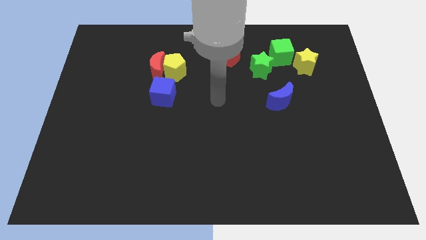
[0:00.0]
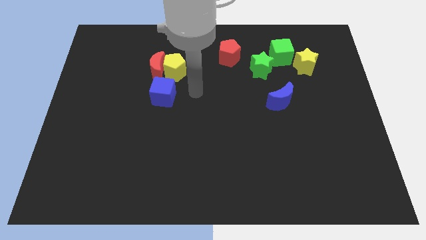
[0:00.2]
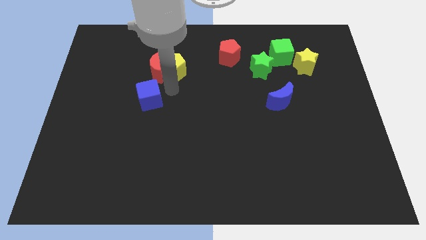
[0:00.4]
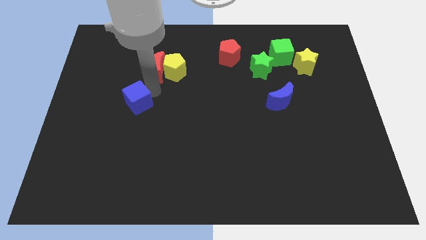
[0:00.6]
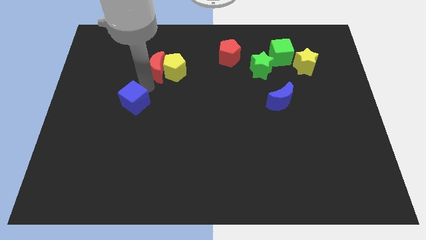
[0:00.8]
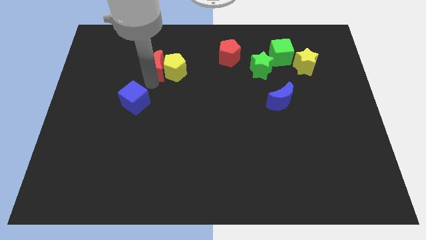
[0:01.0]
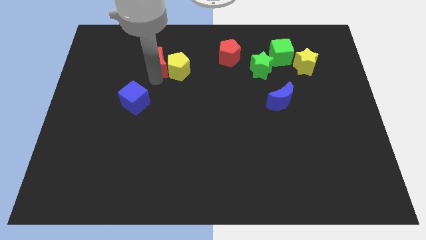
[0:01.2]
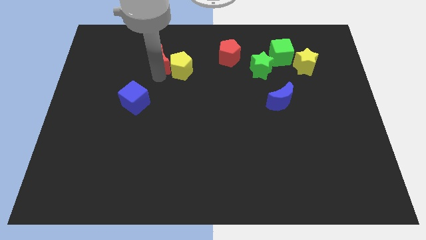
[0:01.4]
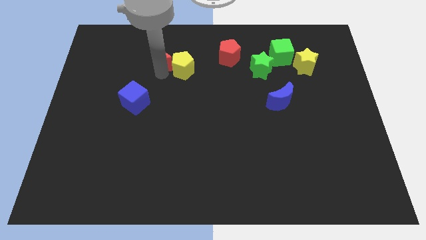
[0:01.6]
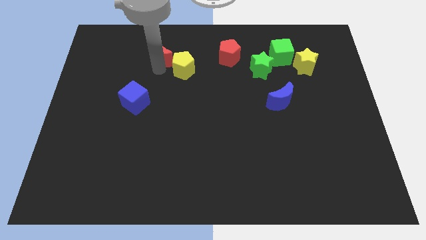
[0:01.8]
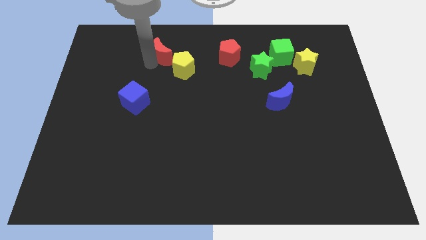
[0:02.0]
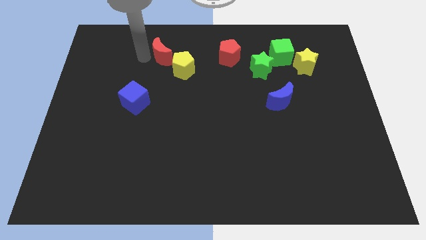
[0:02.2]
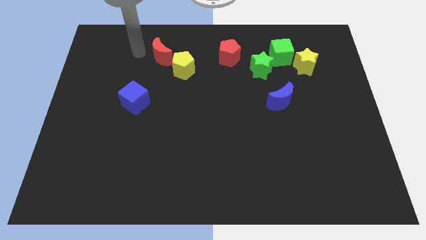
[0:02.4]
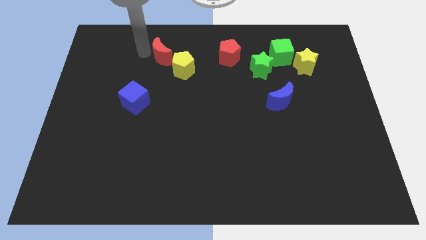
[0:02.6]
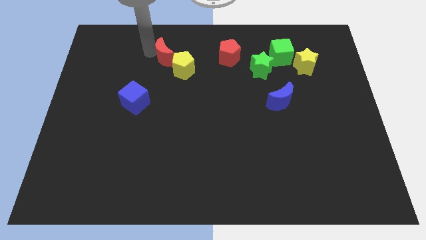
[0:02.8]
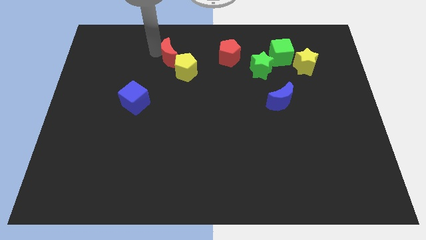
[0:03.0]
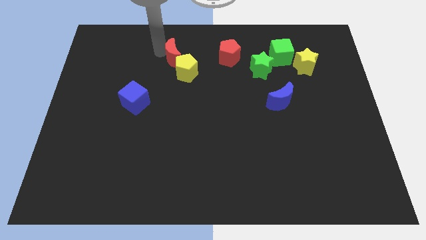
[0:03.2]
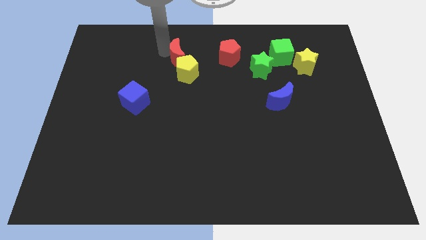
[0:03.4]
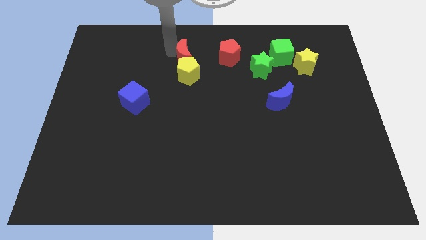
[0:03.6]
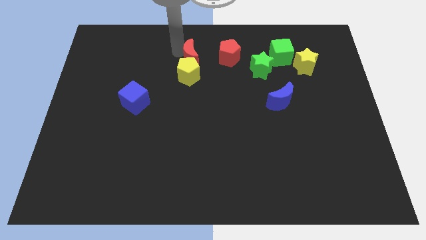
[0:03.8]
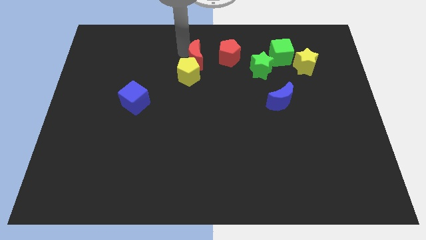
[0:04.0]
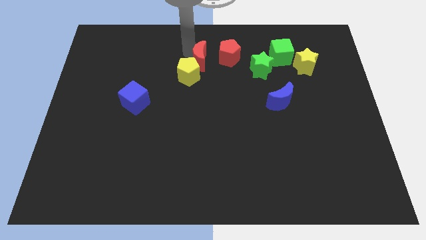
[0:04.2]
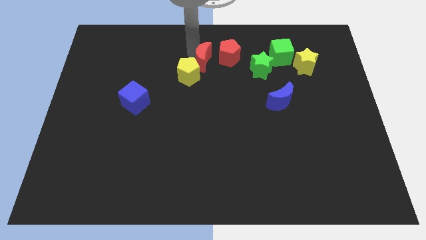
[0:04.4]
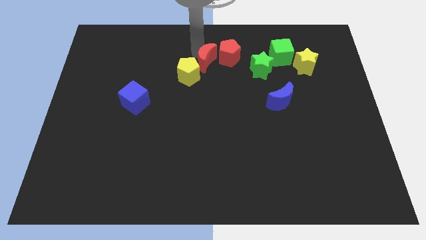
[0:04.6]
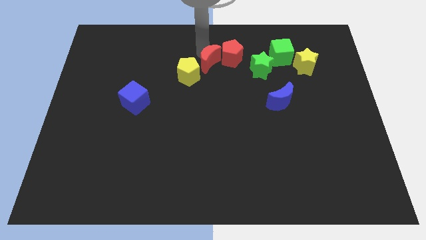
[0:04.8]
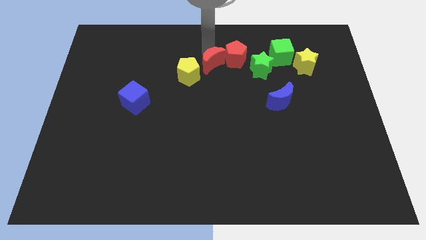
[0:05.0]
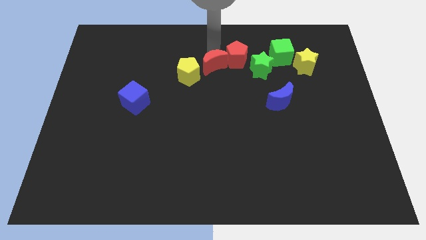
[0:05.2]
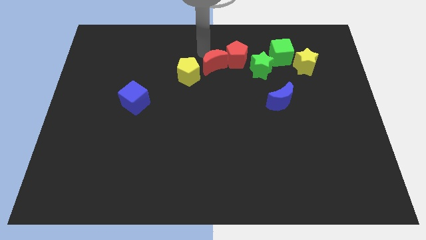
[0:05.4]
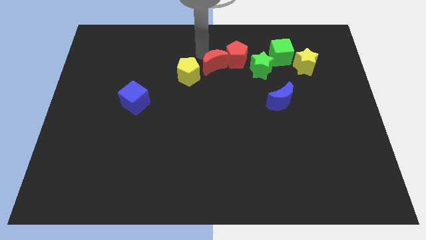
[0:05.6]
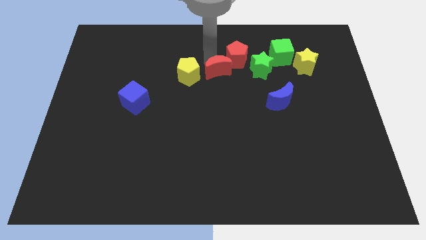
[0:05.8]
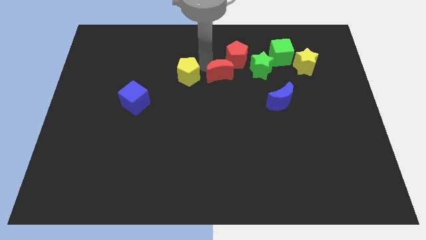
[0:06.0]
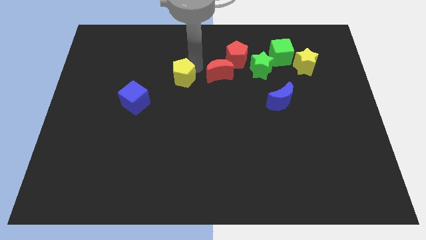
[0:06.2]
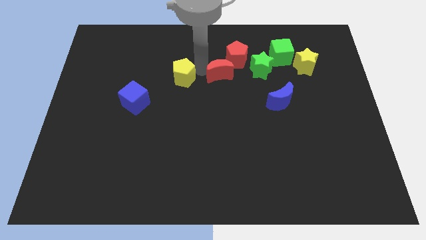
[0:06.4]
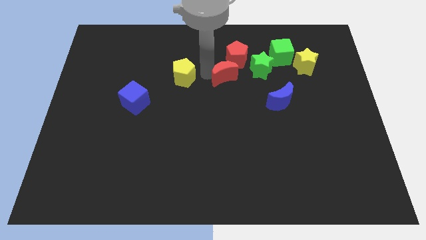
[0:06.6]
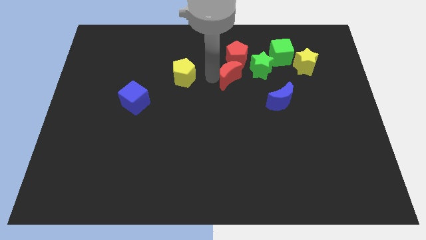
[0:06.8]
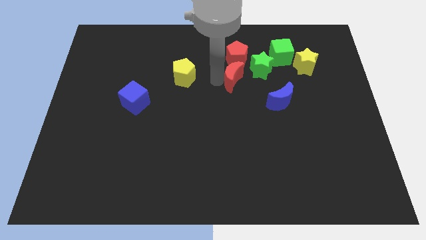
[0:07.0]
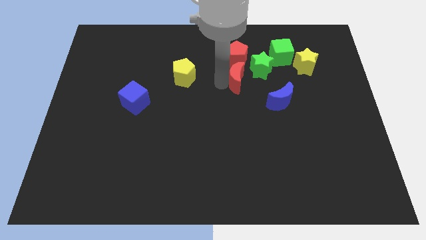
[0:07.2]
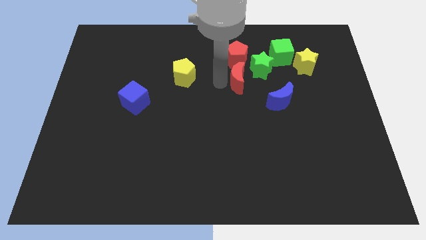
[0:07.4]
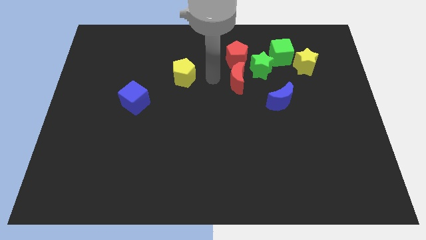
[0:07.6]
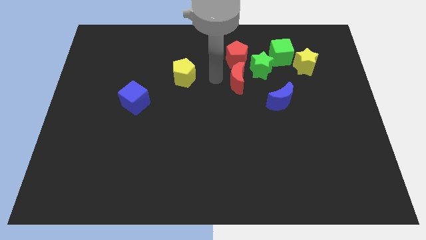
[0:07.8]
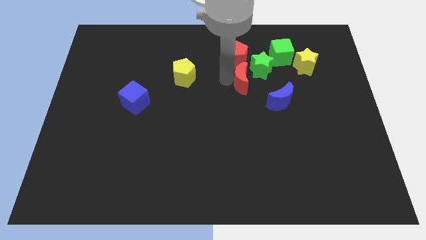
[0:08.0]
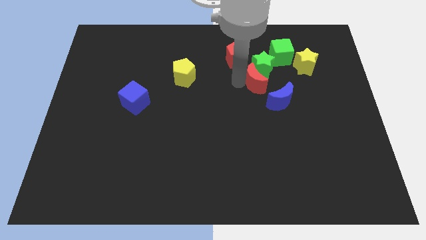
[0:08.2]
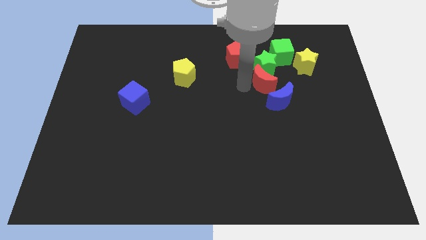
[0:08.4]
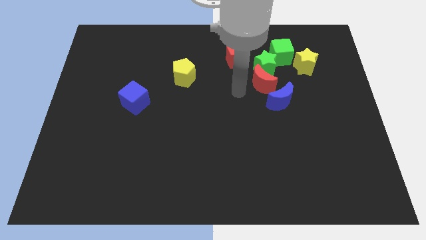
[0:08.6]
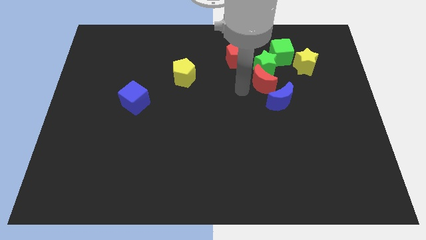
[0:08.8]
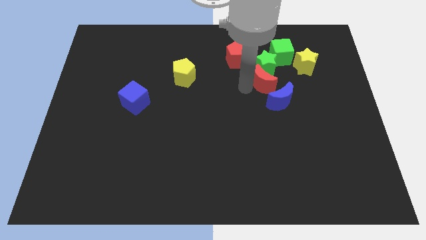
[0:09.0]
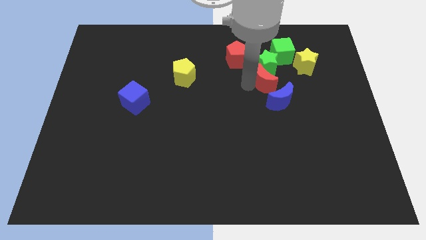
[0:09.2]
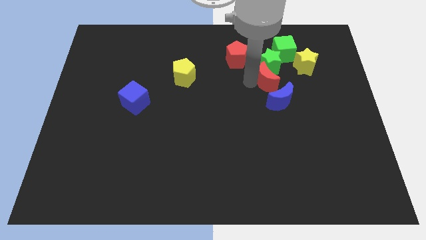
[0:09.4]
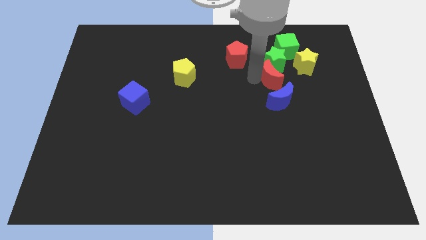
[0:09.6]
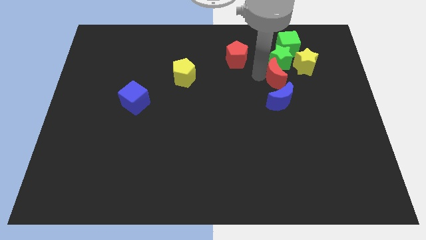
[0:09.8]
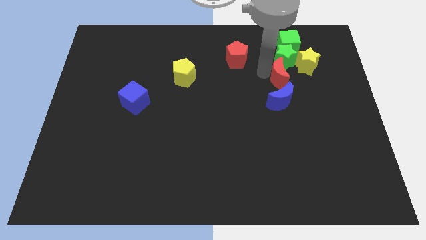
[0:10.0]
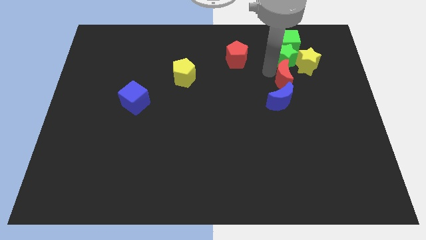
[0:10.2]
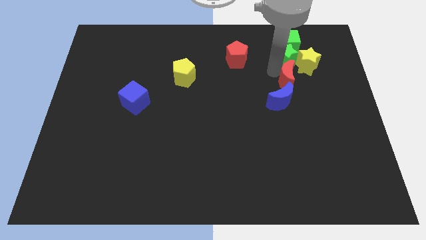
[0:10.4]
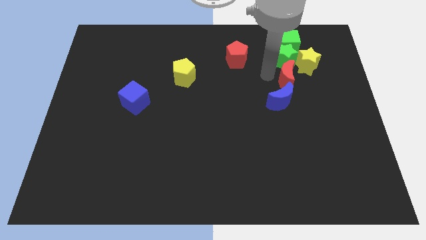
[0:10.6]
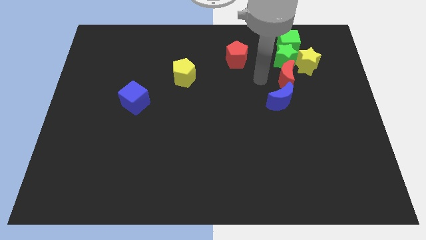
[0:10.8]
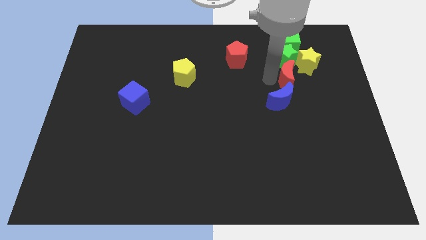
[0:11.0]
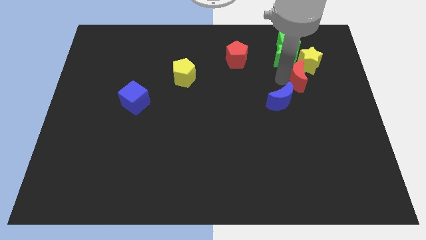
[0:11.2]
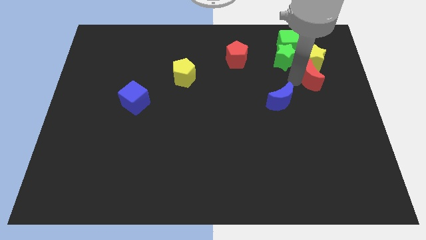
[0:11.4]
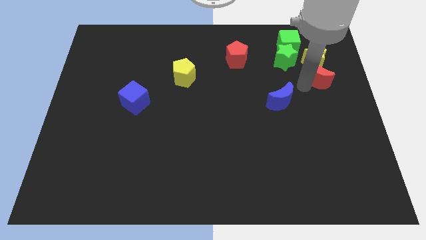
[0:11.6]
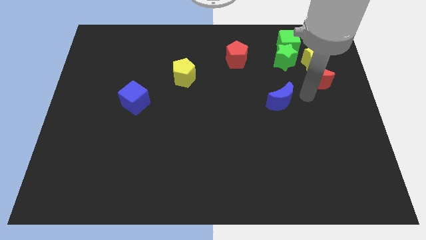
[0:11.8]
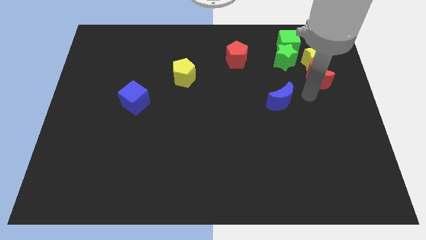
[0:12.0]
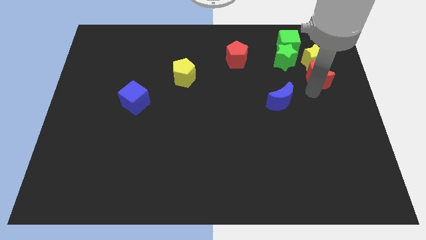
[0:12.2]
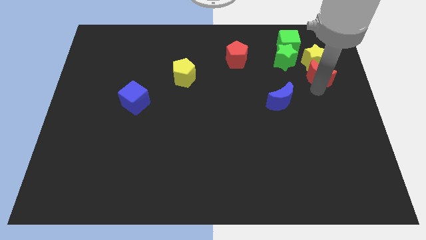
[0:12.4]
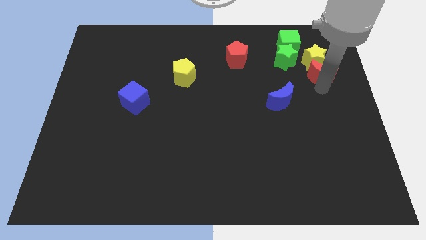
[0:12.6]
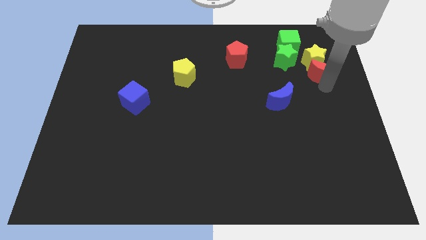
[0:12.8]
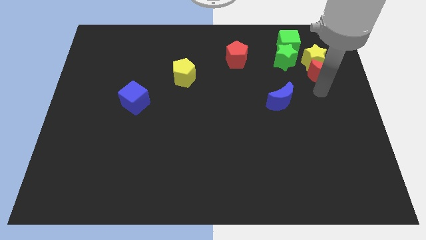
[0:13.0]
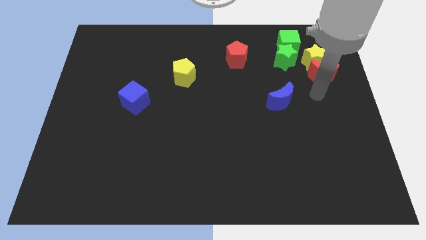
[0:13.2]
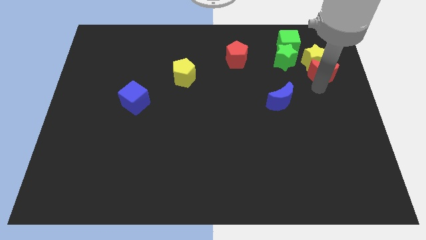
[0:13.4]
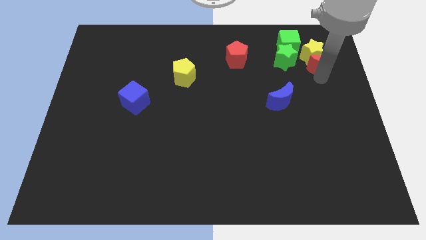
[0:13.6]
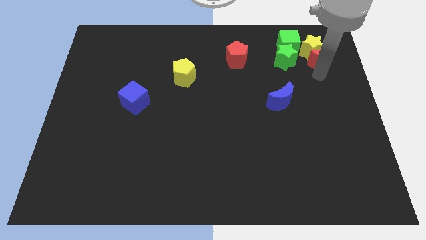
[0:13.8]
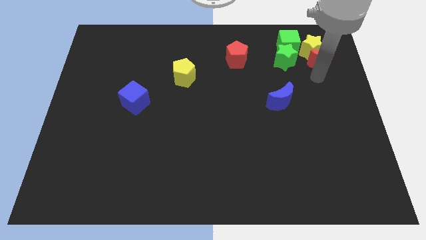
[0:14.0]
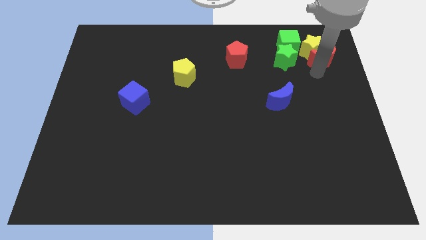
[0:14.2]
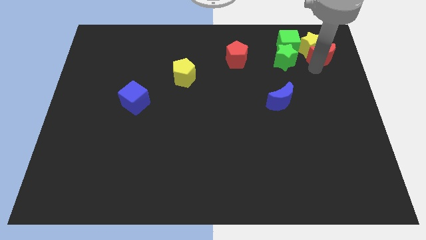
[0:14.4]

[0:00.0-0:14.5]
move the red moon to the right of the green cube

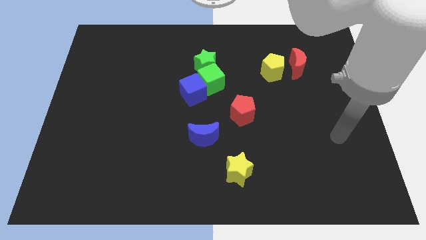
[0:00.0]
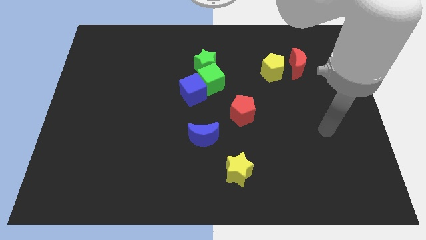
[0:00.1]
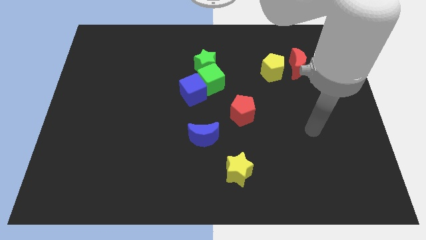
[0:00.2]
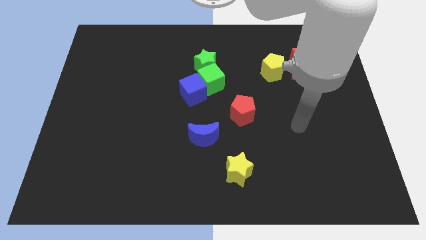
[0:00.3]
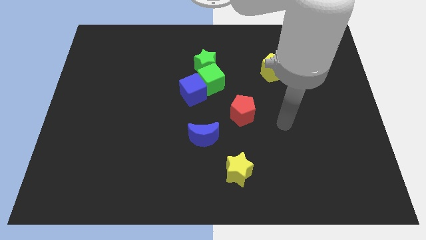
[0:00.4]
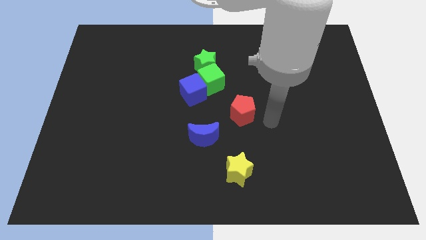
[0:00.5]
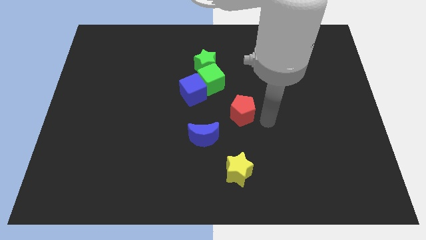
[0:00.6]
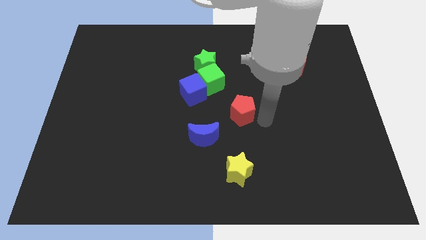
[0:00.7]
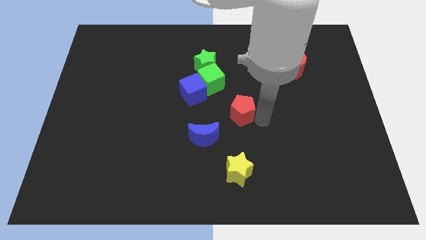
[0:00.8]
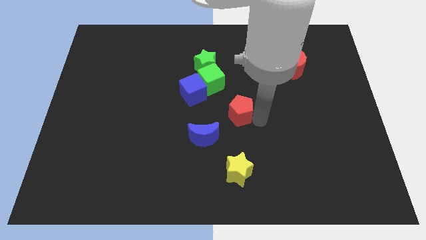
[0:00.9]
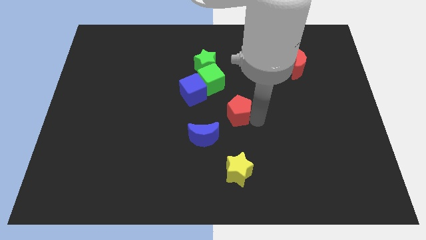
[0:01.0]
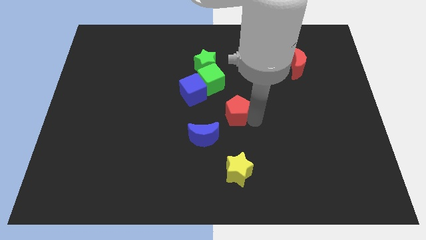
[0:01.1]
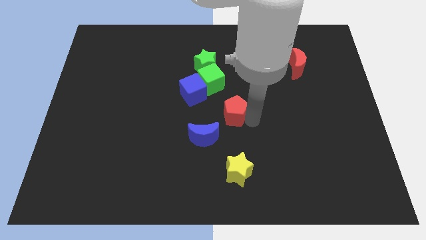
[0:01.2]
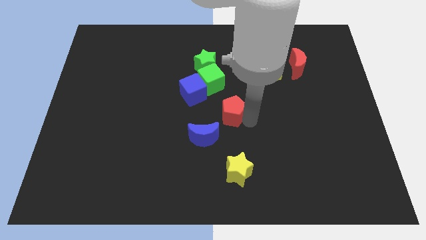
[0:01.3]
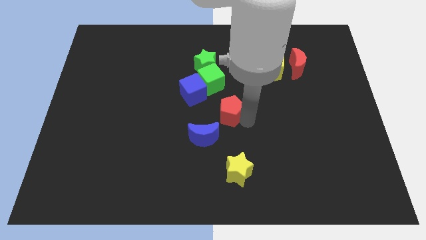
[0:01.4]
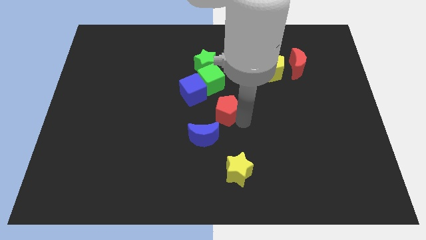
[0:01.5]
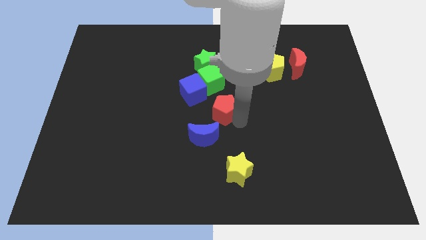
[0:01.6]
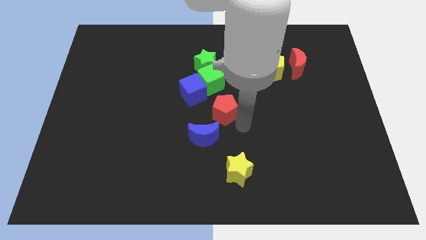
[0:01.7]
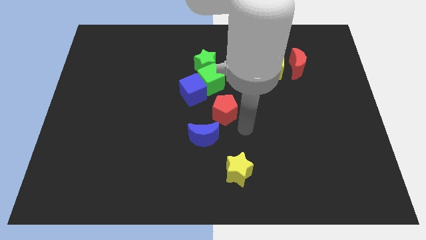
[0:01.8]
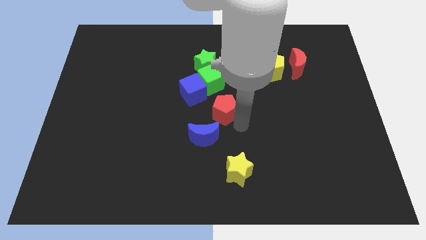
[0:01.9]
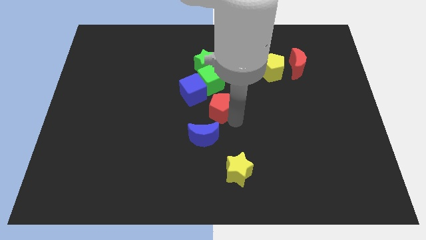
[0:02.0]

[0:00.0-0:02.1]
push the red pentagon to the bottom side of the green star
